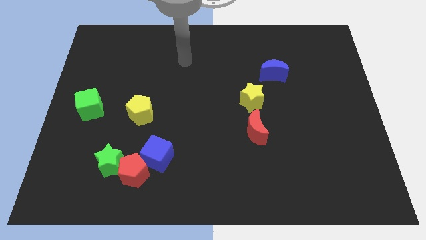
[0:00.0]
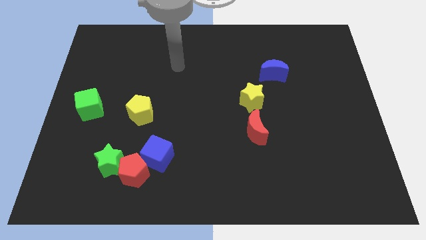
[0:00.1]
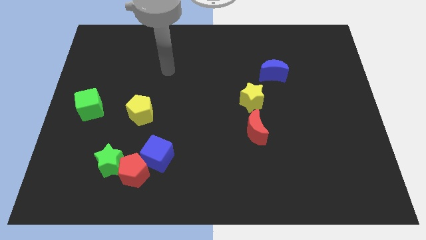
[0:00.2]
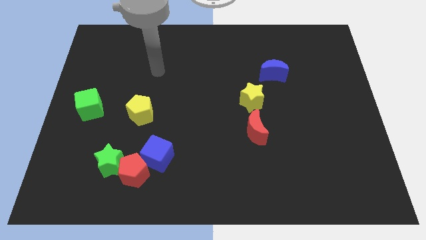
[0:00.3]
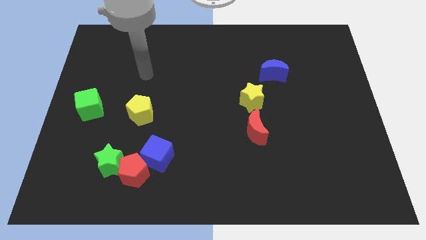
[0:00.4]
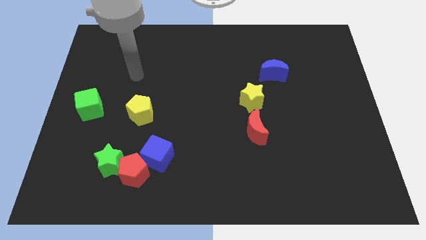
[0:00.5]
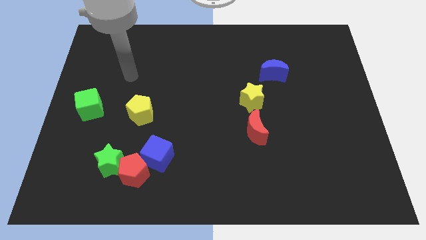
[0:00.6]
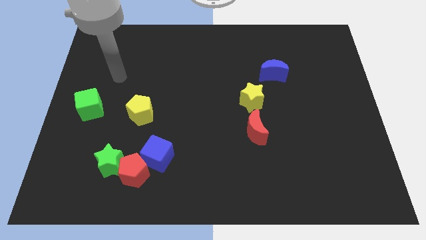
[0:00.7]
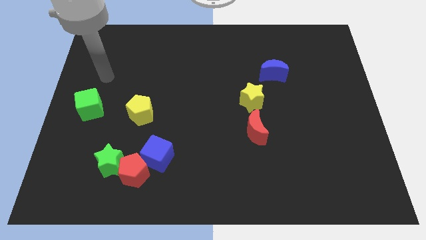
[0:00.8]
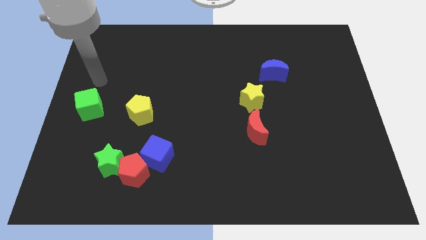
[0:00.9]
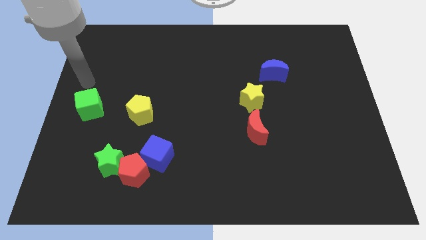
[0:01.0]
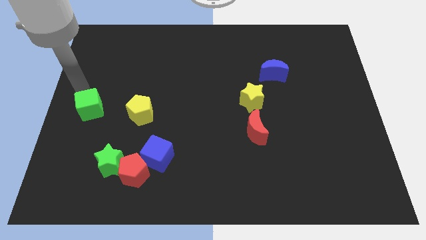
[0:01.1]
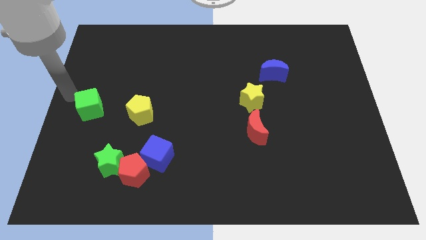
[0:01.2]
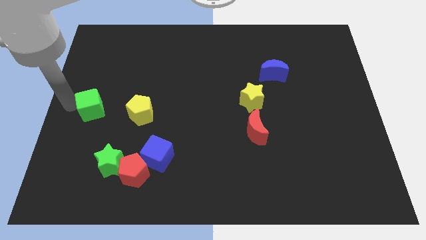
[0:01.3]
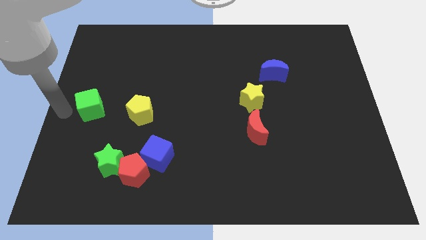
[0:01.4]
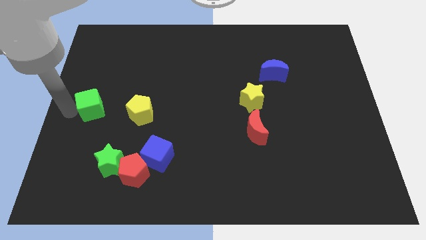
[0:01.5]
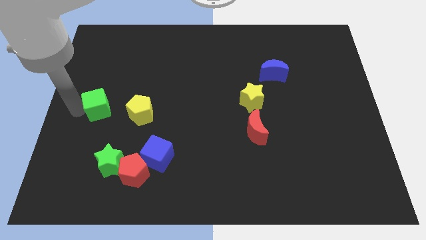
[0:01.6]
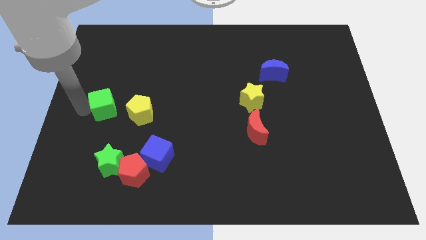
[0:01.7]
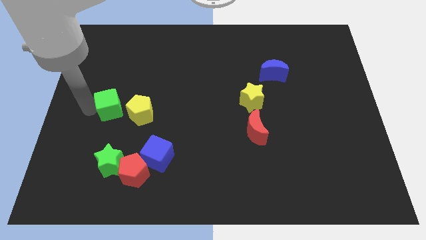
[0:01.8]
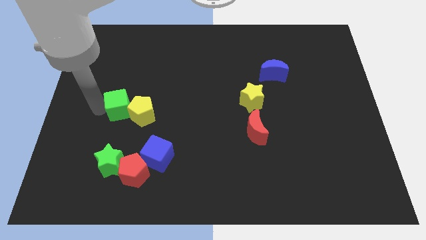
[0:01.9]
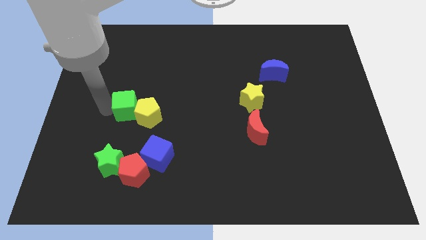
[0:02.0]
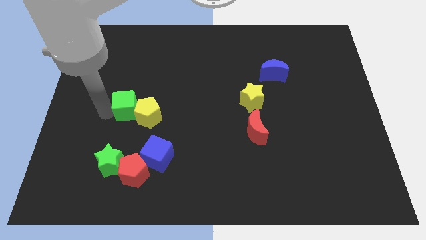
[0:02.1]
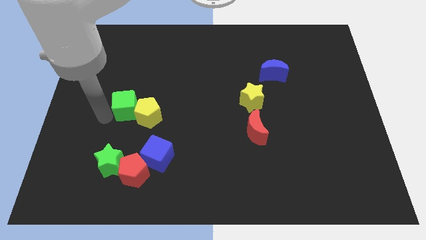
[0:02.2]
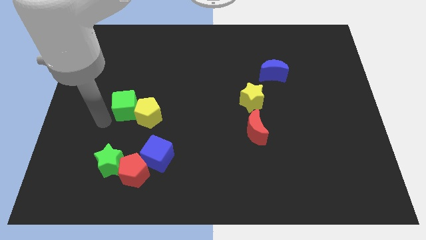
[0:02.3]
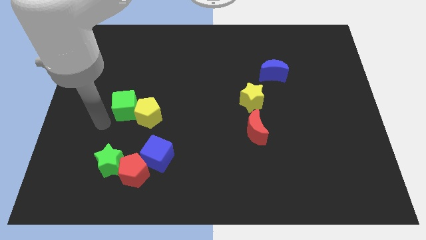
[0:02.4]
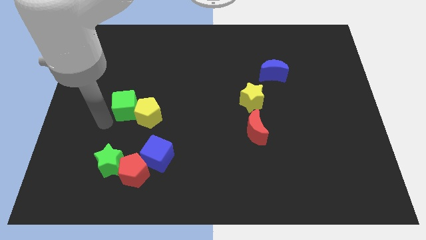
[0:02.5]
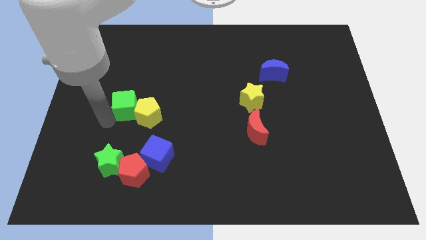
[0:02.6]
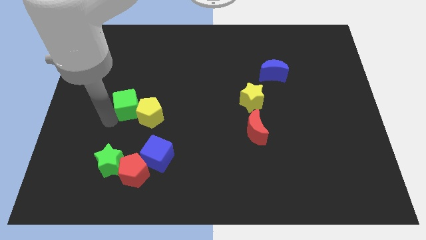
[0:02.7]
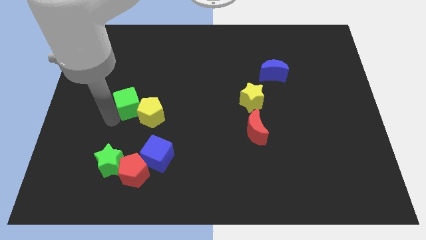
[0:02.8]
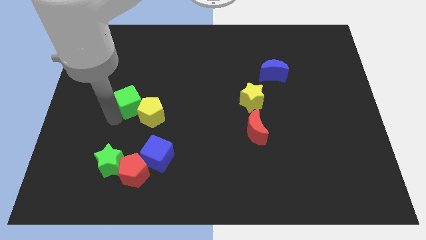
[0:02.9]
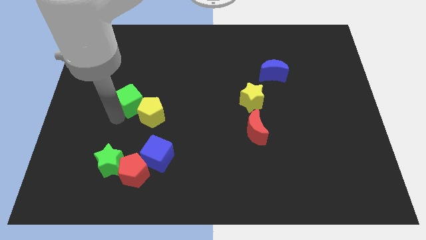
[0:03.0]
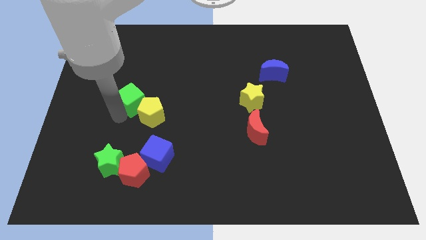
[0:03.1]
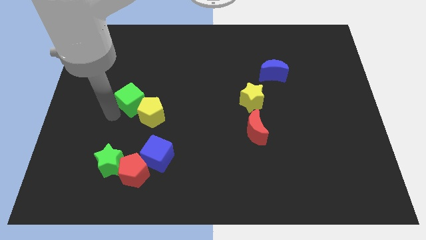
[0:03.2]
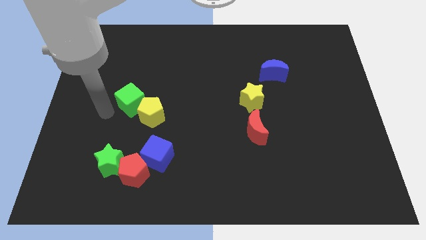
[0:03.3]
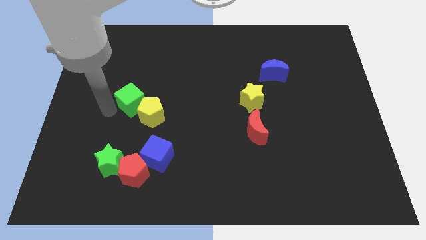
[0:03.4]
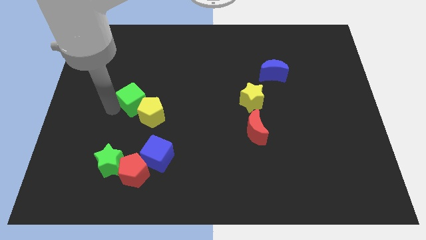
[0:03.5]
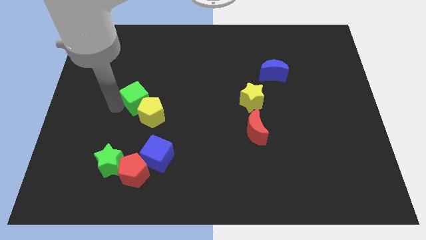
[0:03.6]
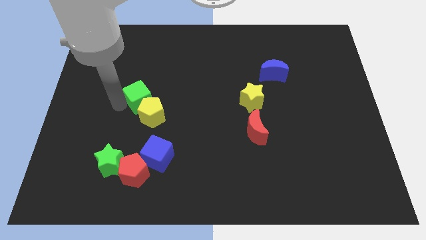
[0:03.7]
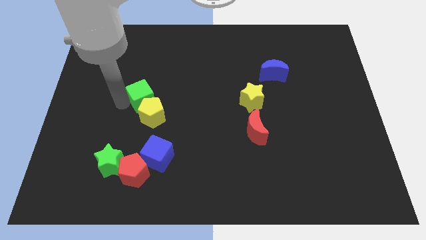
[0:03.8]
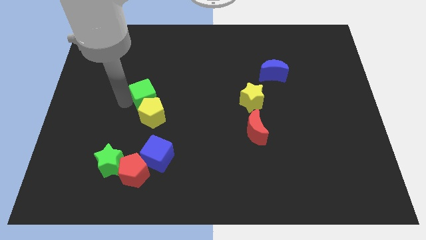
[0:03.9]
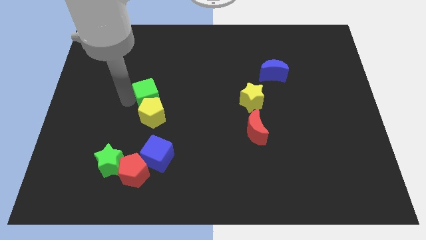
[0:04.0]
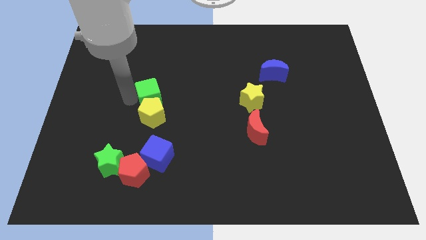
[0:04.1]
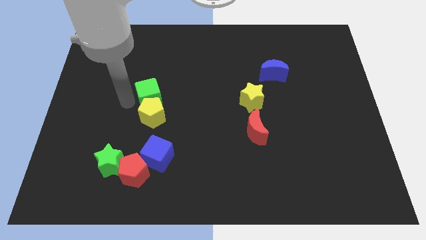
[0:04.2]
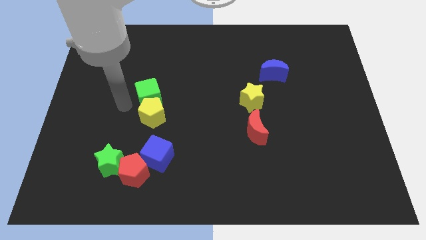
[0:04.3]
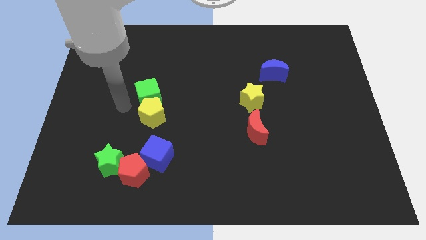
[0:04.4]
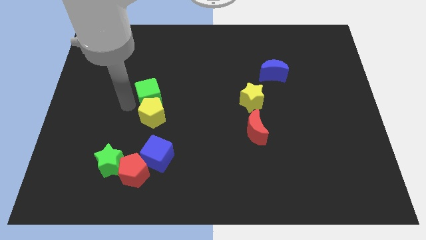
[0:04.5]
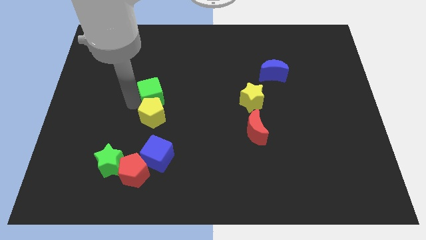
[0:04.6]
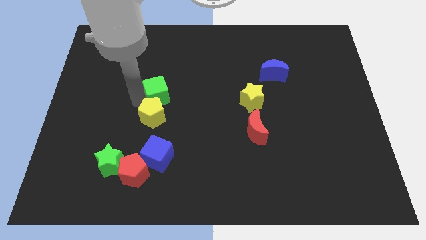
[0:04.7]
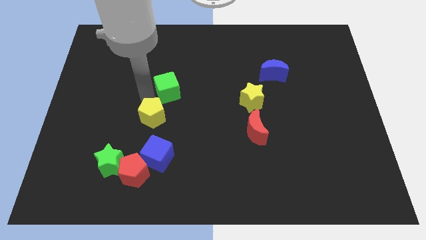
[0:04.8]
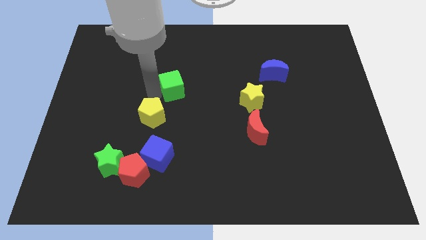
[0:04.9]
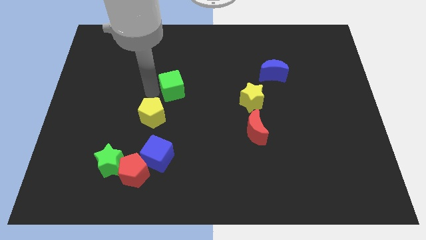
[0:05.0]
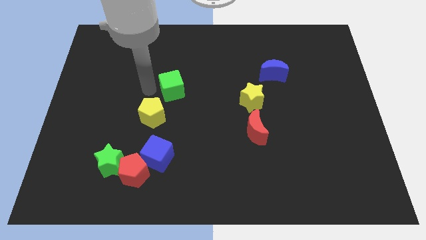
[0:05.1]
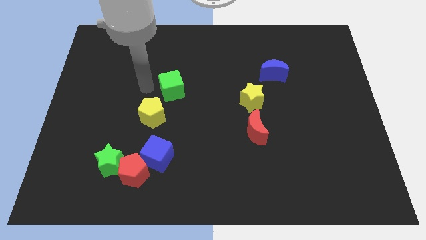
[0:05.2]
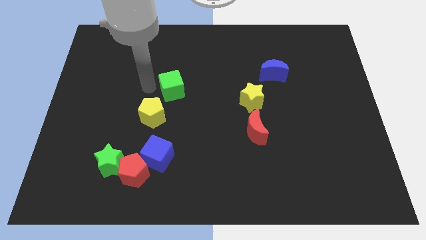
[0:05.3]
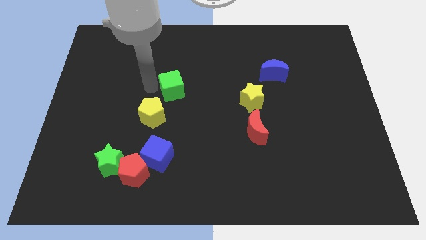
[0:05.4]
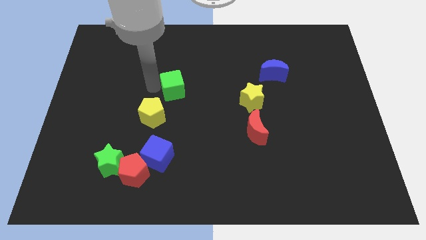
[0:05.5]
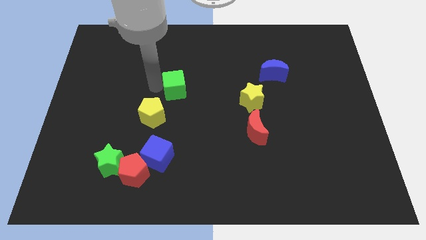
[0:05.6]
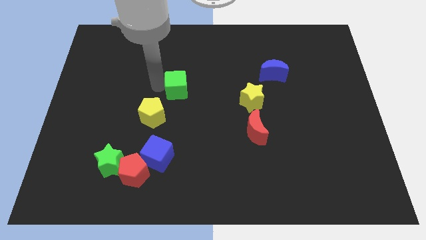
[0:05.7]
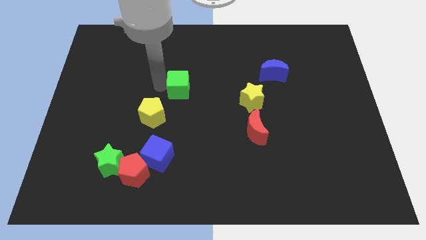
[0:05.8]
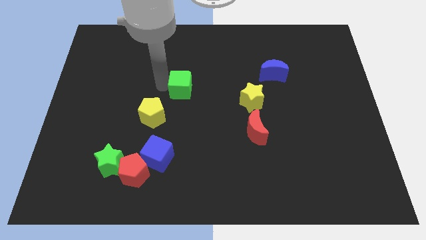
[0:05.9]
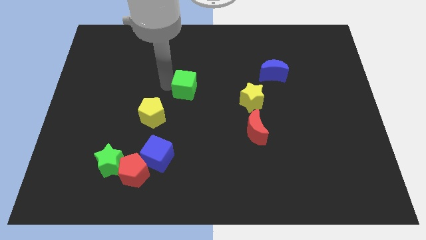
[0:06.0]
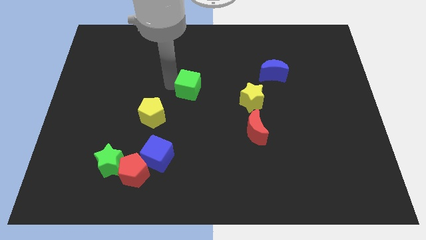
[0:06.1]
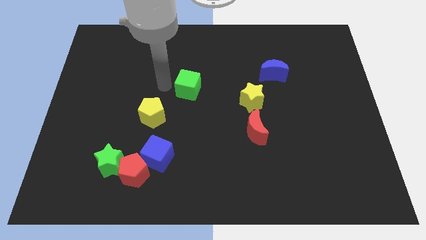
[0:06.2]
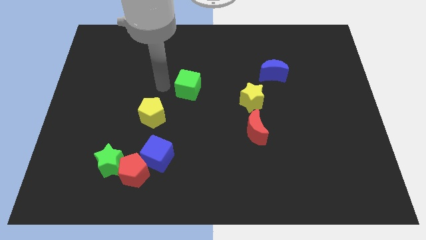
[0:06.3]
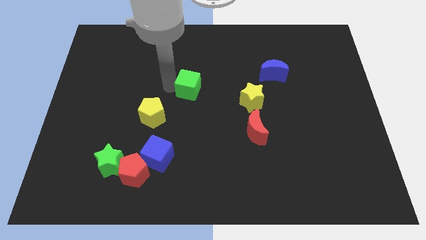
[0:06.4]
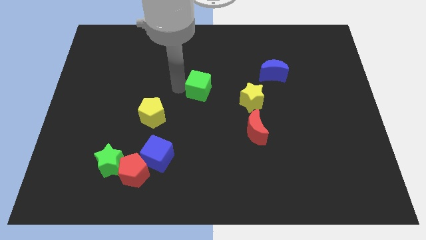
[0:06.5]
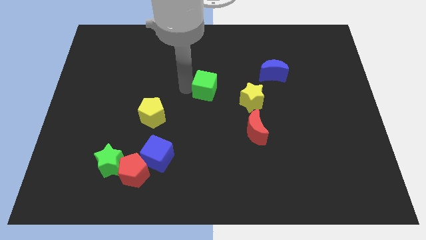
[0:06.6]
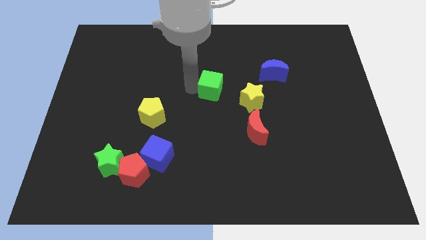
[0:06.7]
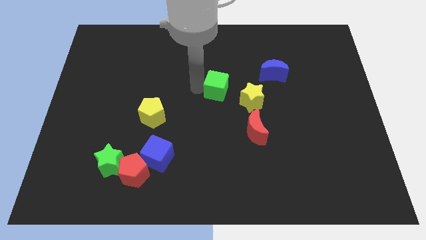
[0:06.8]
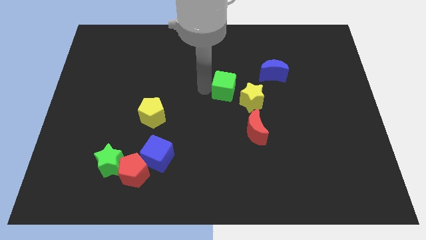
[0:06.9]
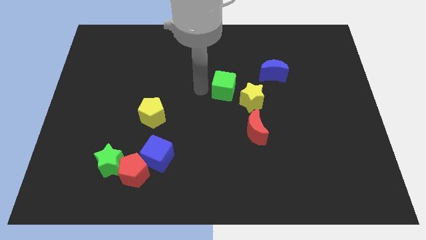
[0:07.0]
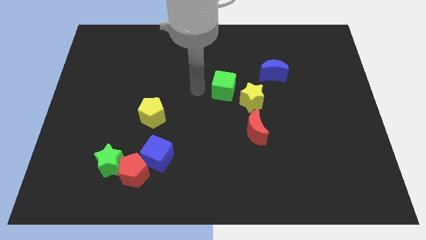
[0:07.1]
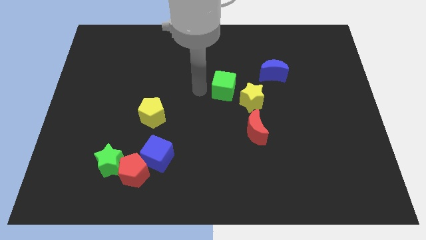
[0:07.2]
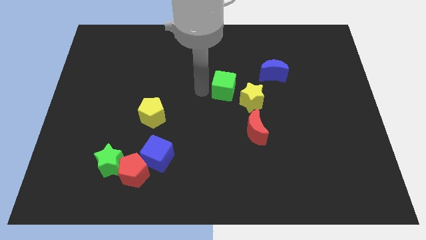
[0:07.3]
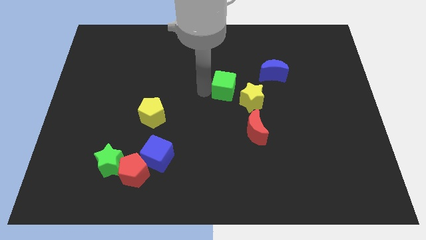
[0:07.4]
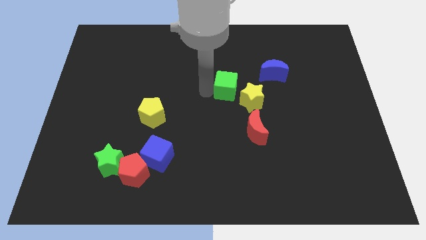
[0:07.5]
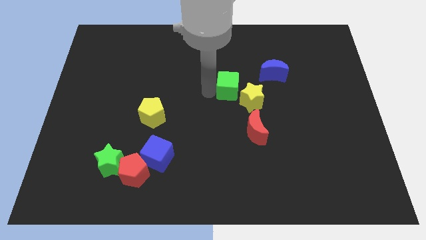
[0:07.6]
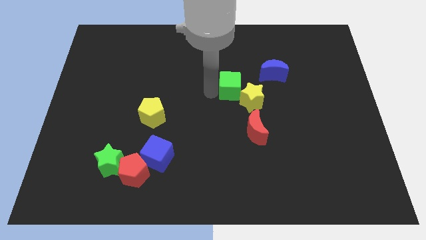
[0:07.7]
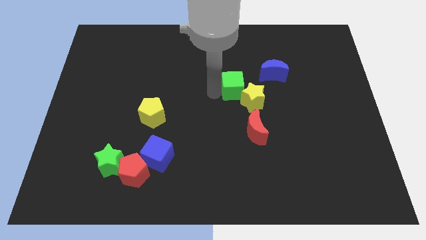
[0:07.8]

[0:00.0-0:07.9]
put the green cube above the red moon
